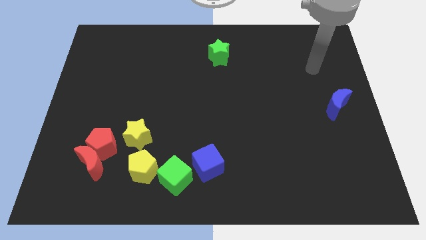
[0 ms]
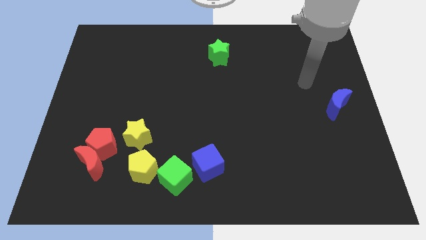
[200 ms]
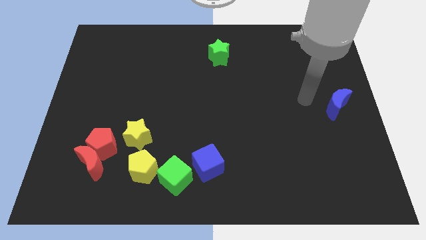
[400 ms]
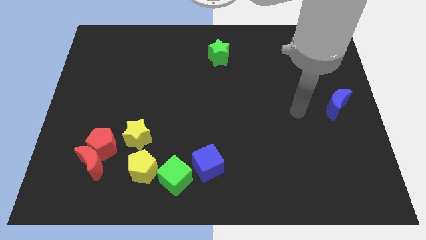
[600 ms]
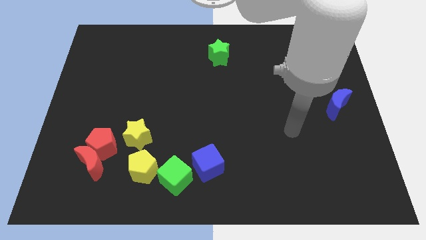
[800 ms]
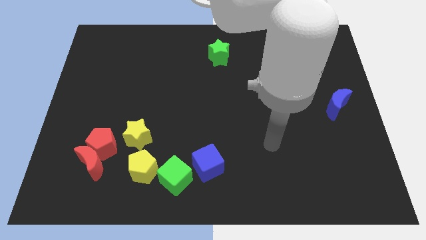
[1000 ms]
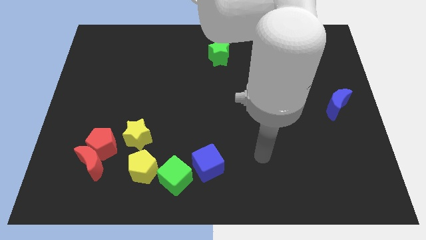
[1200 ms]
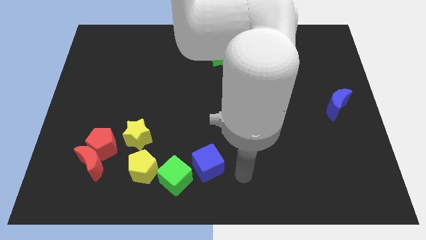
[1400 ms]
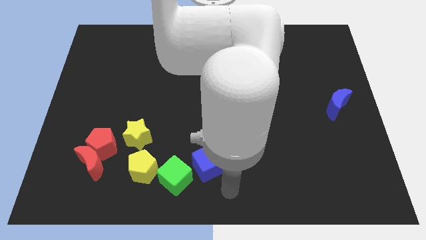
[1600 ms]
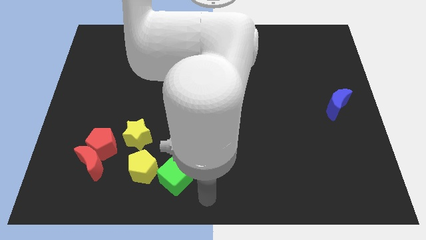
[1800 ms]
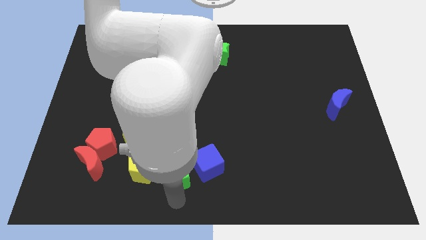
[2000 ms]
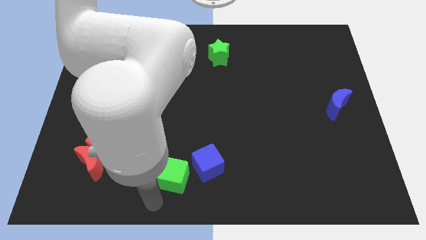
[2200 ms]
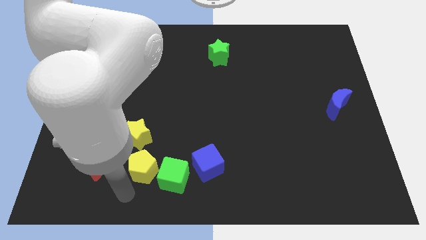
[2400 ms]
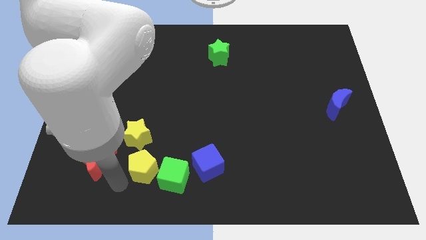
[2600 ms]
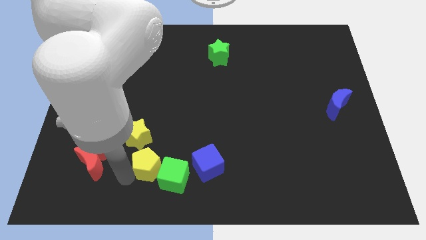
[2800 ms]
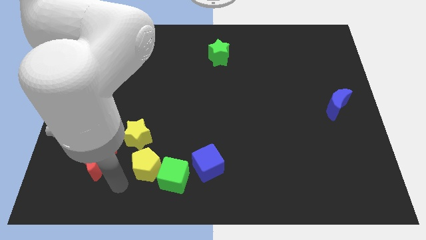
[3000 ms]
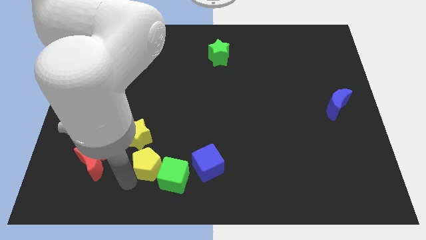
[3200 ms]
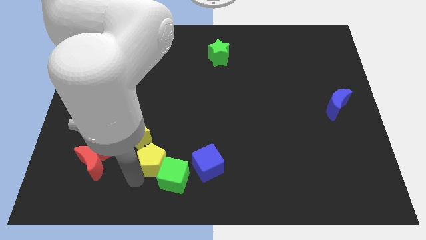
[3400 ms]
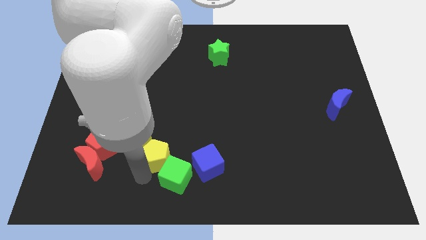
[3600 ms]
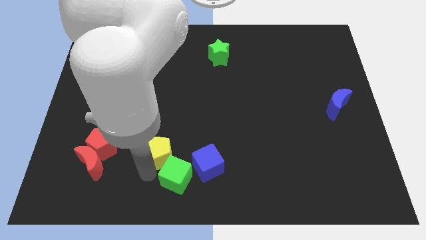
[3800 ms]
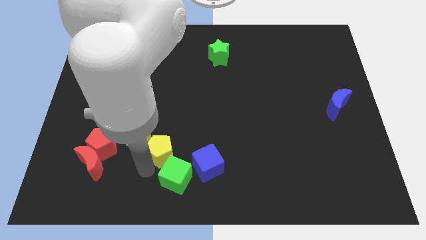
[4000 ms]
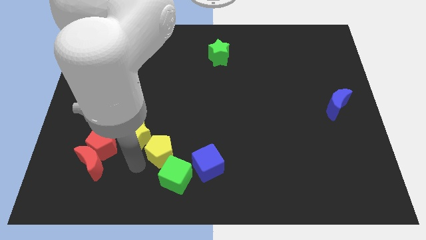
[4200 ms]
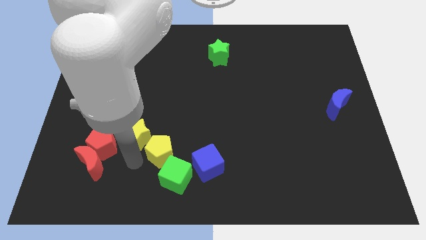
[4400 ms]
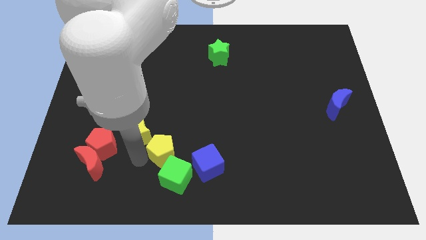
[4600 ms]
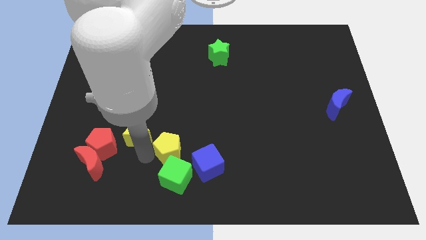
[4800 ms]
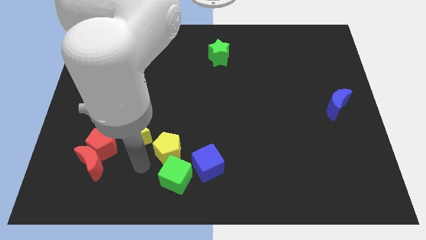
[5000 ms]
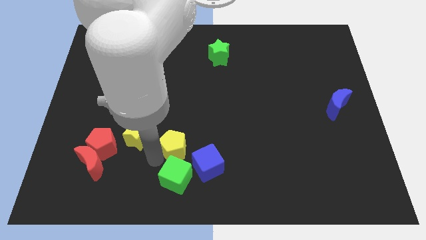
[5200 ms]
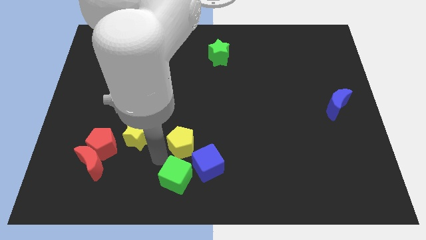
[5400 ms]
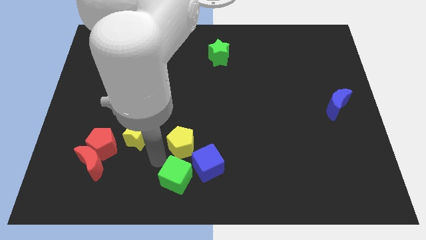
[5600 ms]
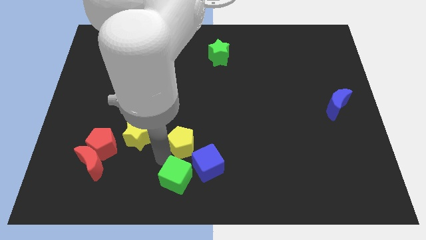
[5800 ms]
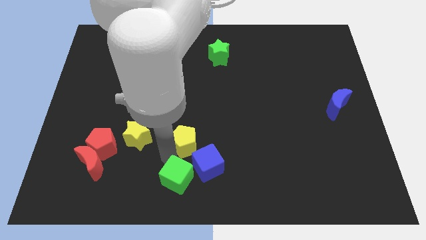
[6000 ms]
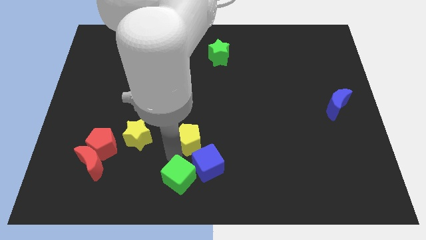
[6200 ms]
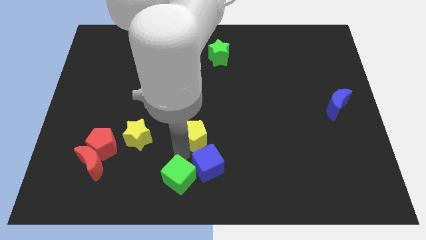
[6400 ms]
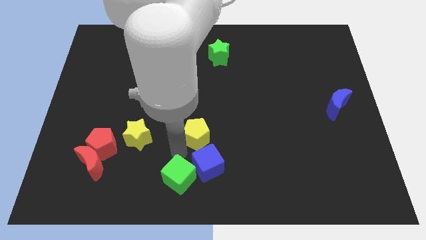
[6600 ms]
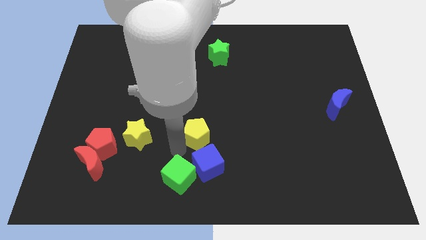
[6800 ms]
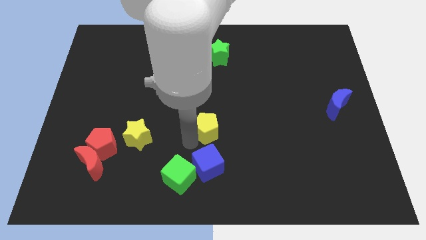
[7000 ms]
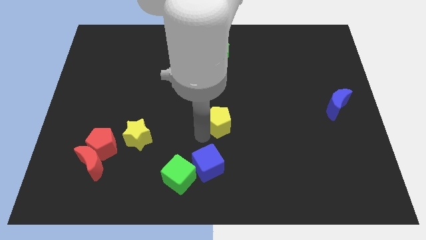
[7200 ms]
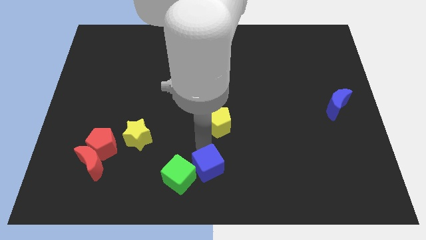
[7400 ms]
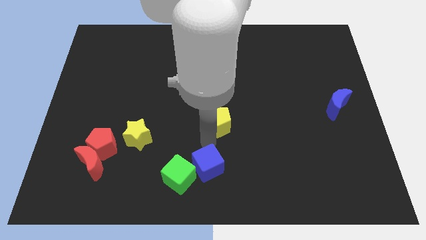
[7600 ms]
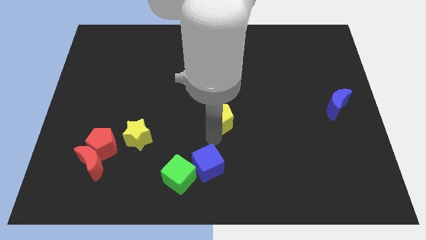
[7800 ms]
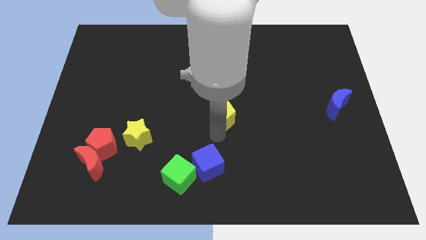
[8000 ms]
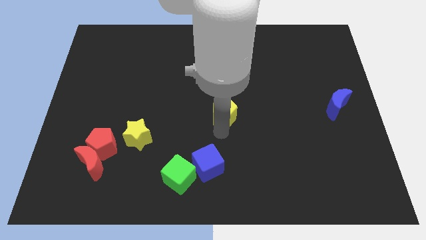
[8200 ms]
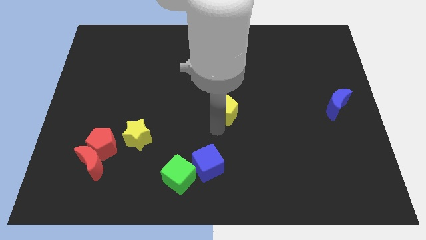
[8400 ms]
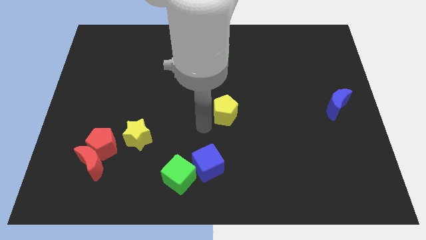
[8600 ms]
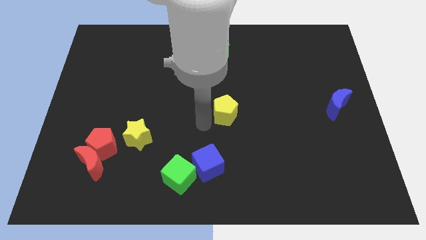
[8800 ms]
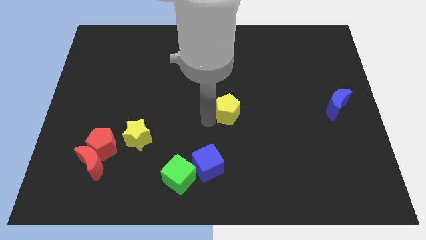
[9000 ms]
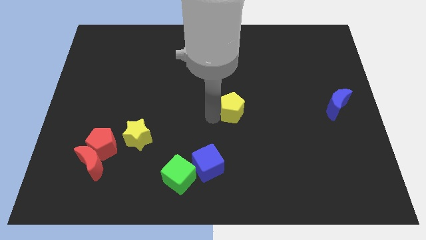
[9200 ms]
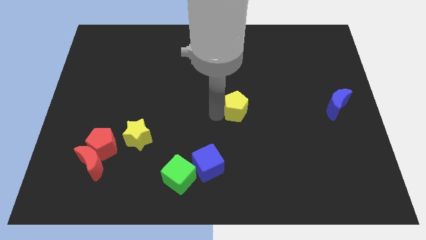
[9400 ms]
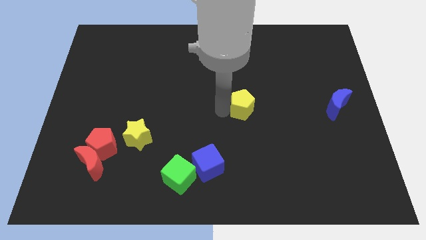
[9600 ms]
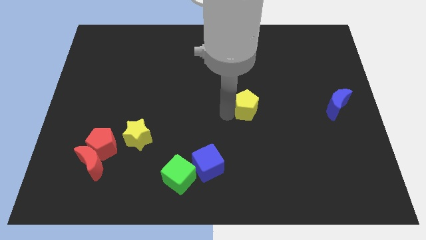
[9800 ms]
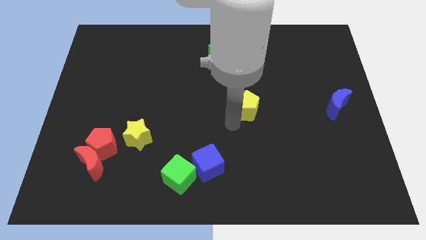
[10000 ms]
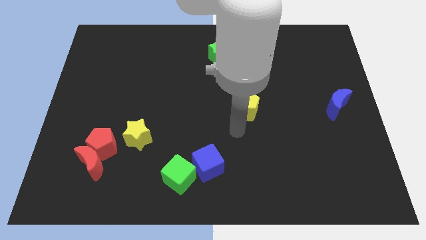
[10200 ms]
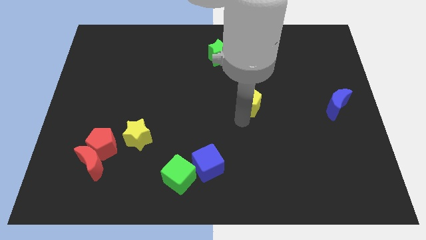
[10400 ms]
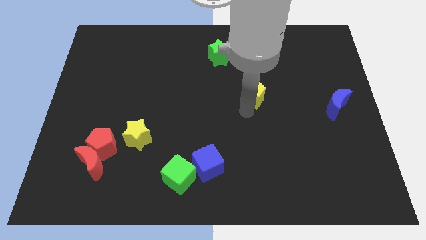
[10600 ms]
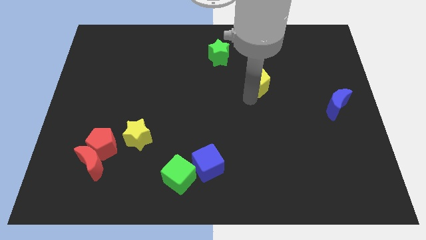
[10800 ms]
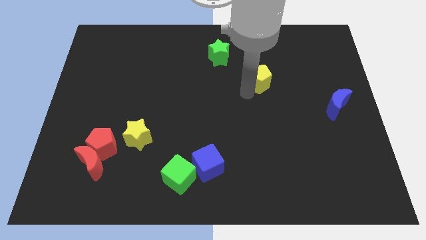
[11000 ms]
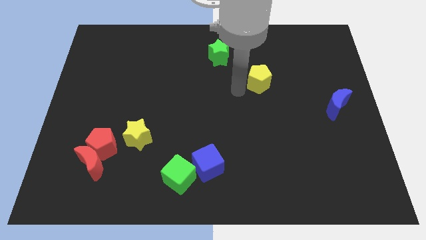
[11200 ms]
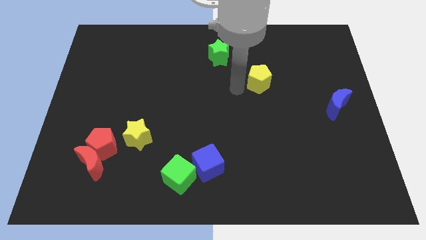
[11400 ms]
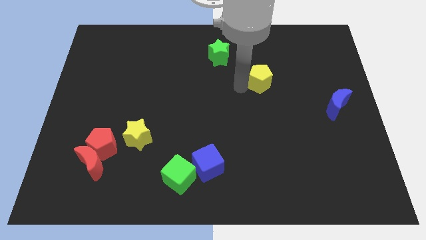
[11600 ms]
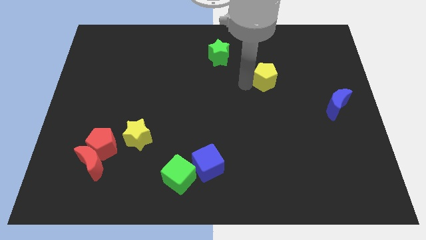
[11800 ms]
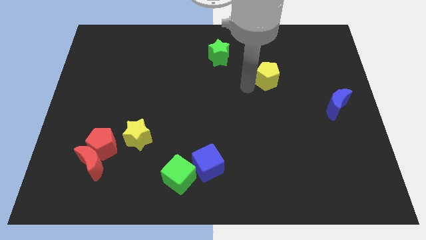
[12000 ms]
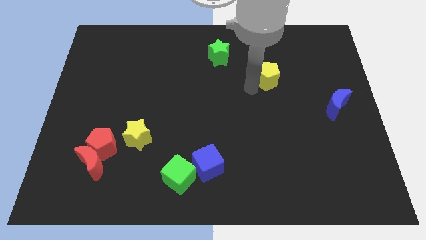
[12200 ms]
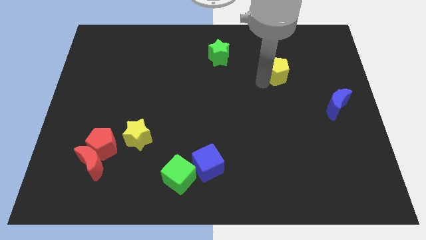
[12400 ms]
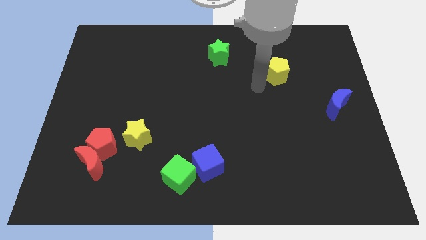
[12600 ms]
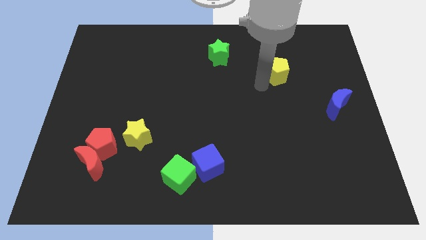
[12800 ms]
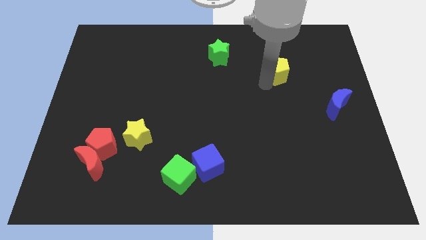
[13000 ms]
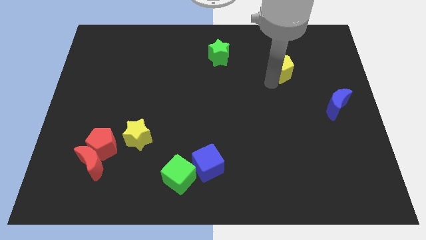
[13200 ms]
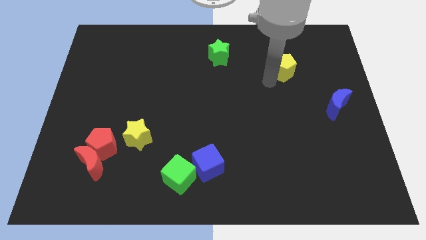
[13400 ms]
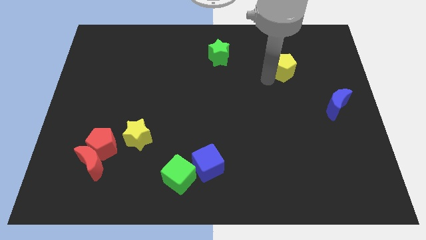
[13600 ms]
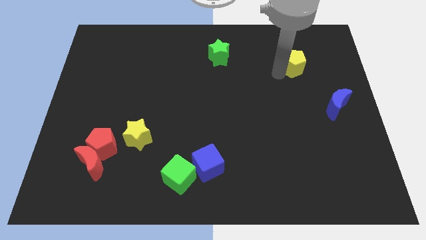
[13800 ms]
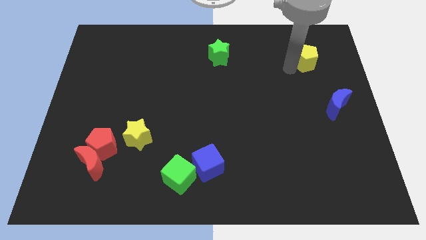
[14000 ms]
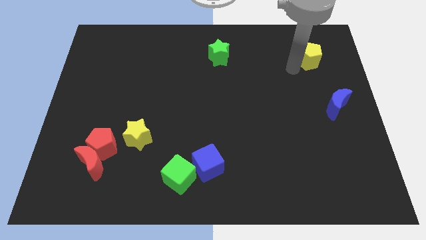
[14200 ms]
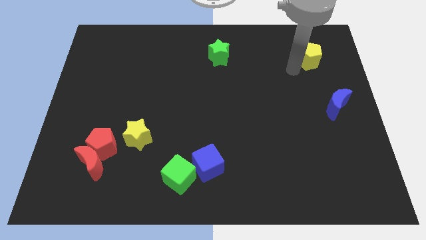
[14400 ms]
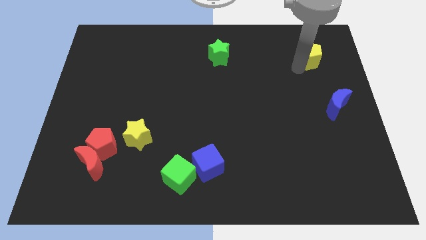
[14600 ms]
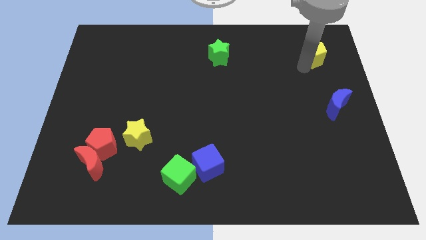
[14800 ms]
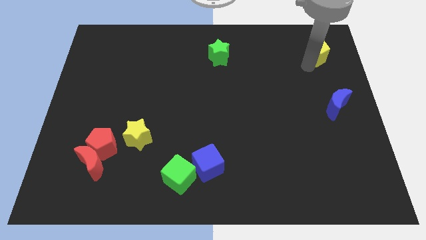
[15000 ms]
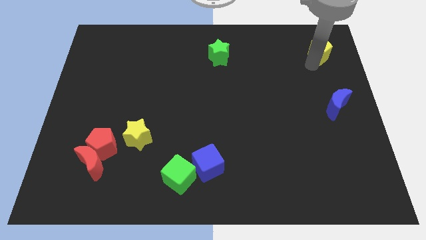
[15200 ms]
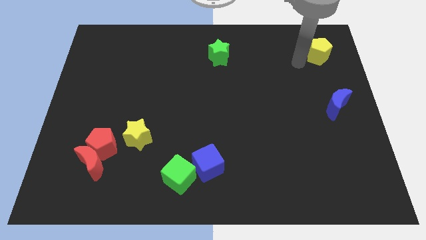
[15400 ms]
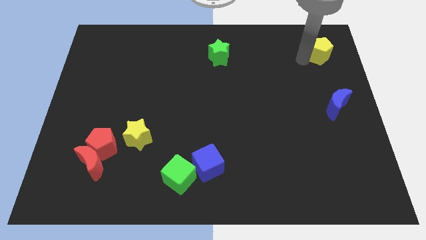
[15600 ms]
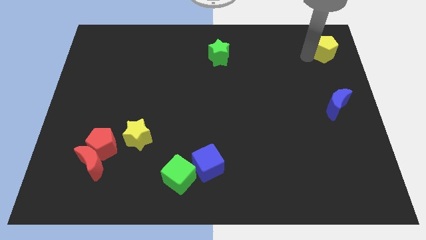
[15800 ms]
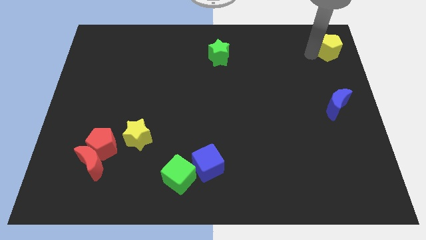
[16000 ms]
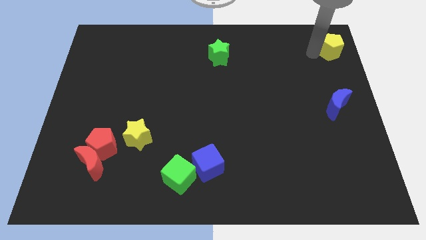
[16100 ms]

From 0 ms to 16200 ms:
put the yellow pentagon to the top right of the board
